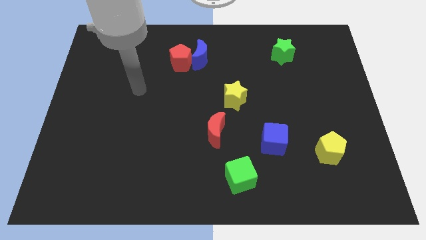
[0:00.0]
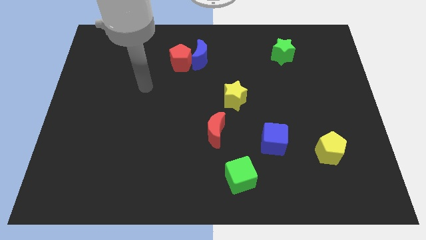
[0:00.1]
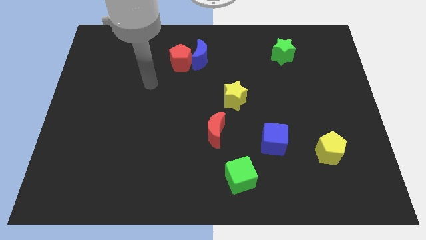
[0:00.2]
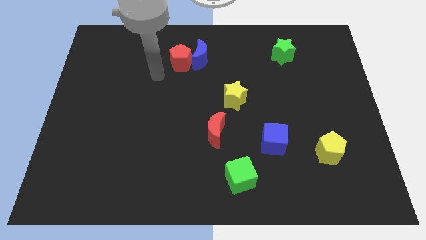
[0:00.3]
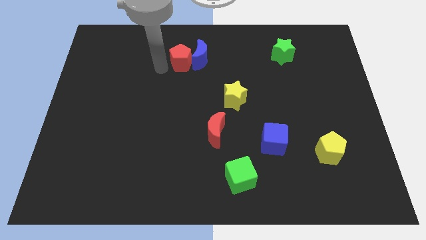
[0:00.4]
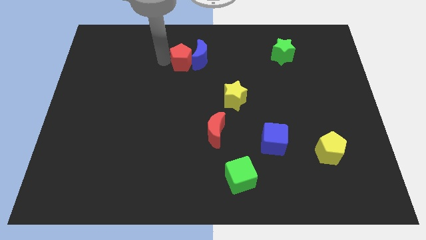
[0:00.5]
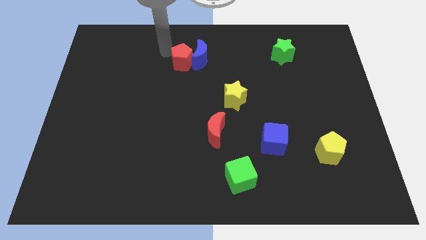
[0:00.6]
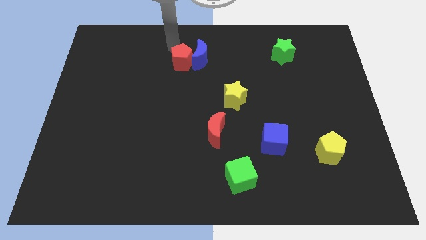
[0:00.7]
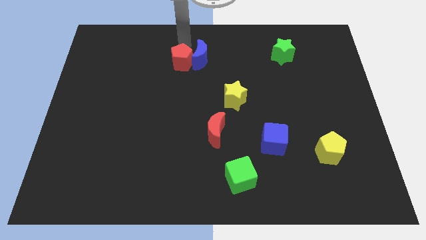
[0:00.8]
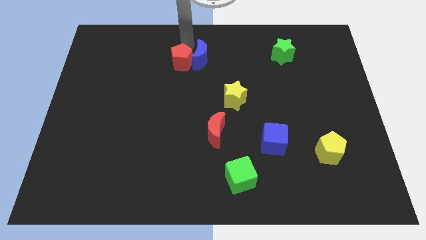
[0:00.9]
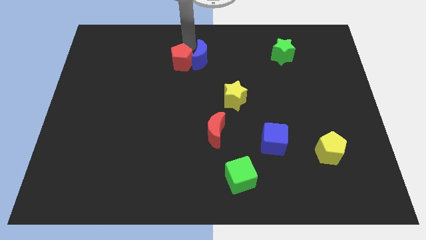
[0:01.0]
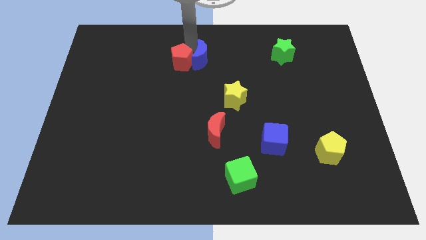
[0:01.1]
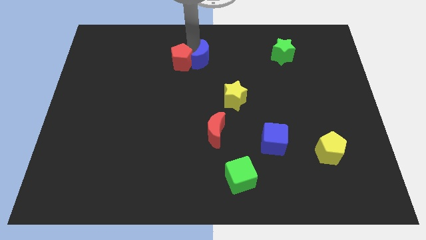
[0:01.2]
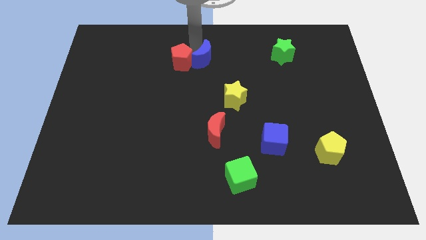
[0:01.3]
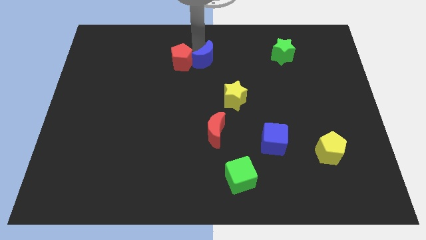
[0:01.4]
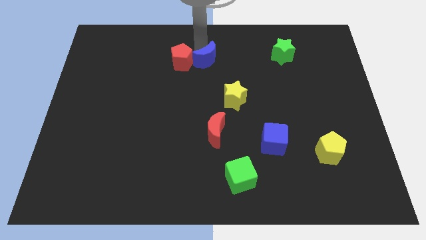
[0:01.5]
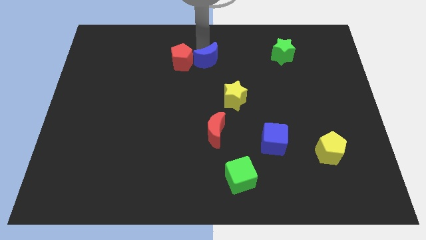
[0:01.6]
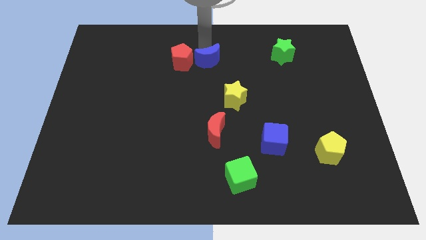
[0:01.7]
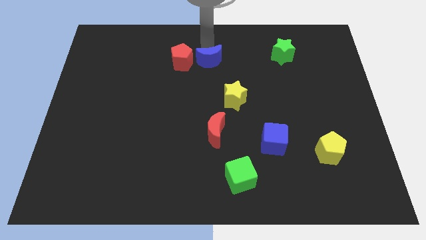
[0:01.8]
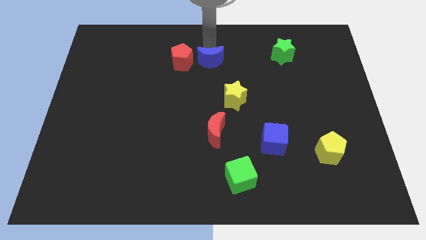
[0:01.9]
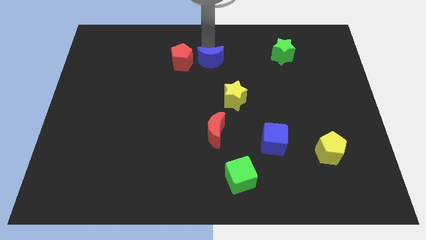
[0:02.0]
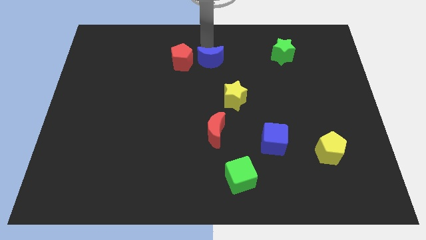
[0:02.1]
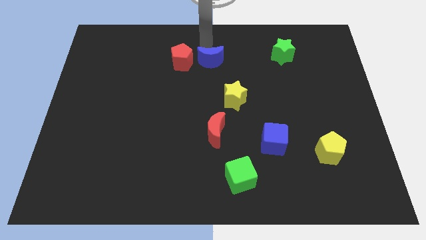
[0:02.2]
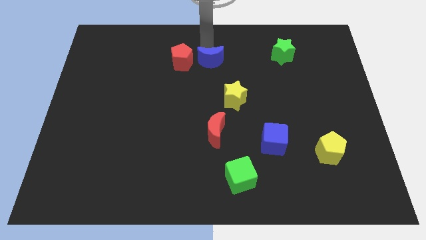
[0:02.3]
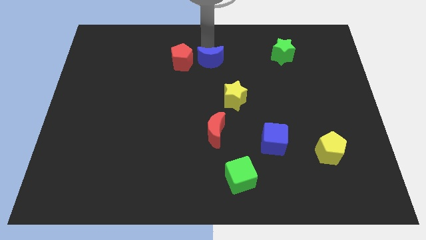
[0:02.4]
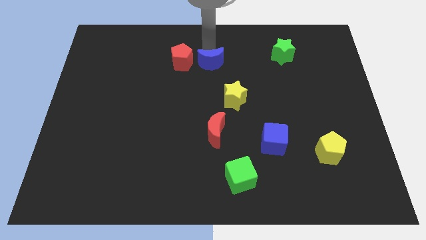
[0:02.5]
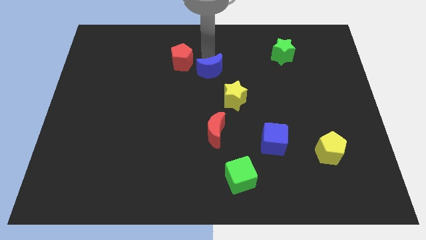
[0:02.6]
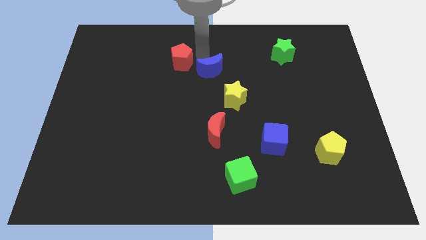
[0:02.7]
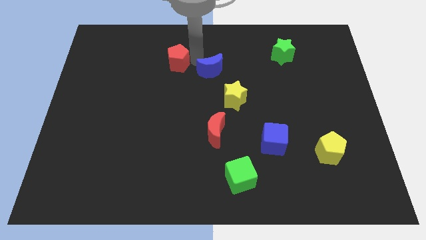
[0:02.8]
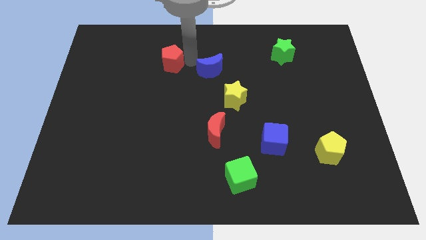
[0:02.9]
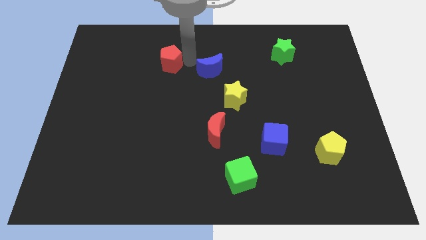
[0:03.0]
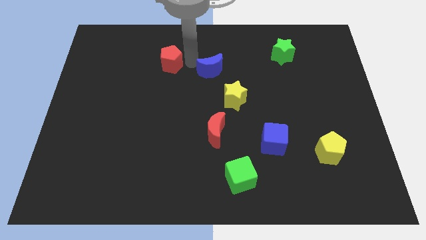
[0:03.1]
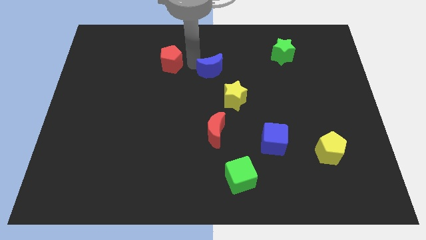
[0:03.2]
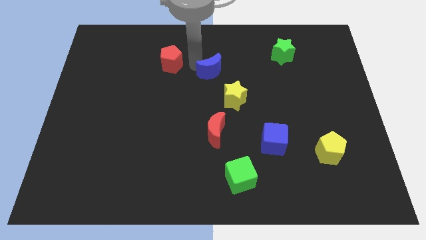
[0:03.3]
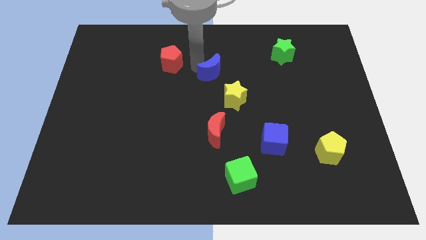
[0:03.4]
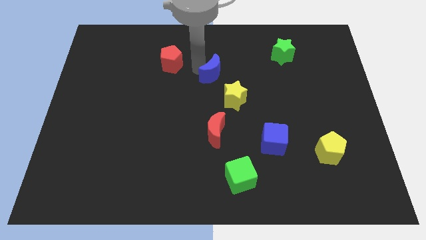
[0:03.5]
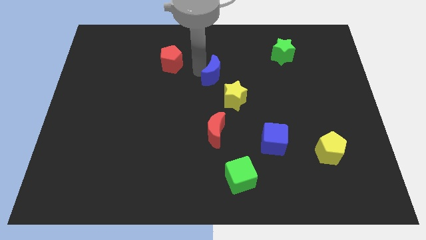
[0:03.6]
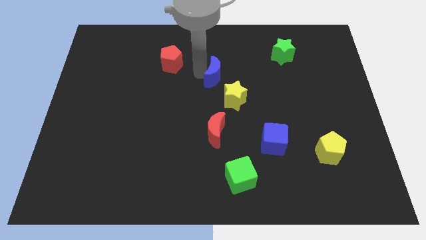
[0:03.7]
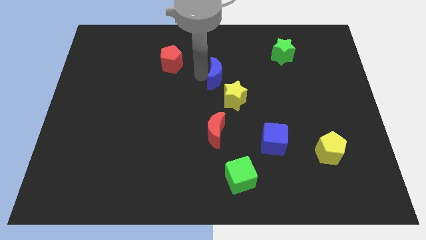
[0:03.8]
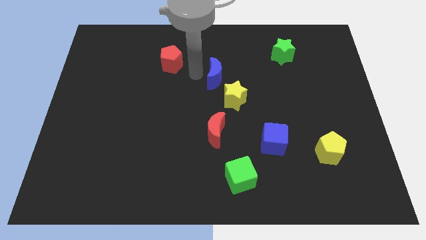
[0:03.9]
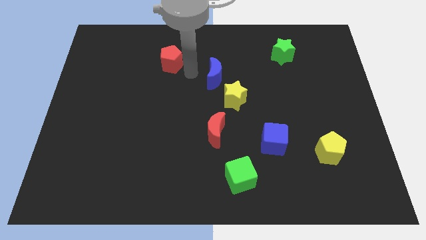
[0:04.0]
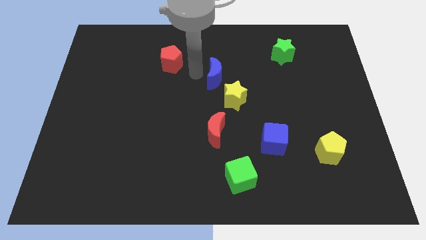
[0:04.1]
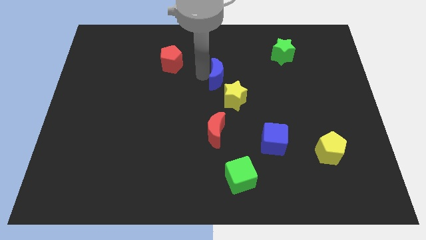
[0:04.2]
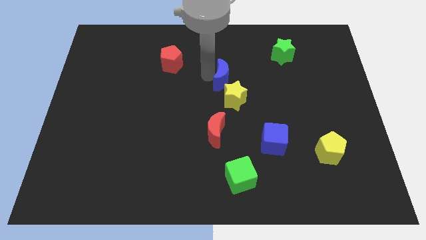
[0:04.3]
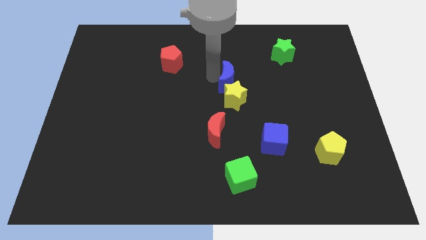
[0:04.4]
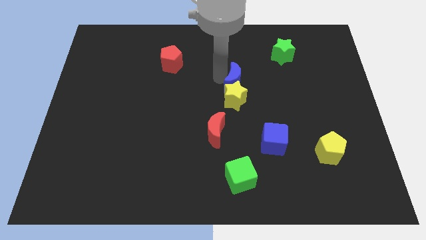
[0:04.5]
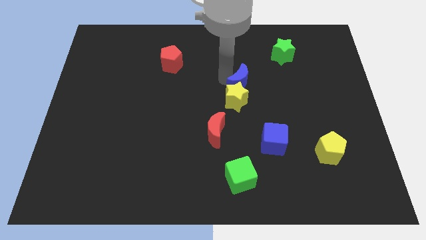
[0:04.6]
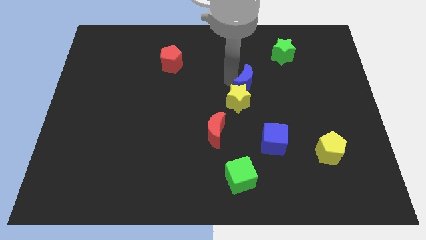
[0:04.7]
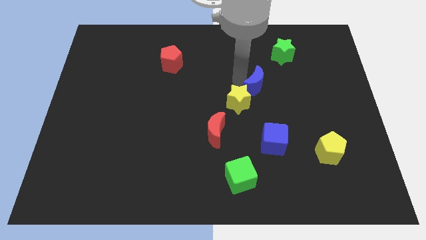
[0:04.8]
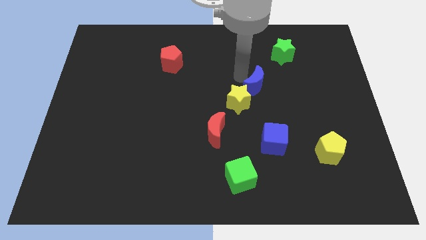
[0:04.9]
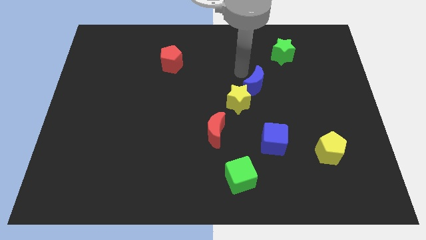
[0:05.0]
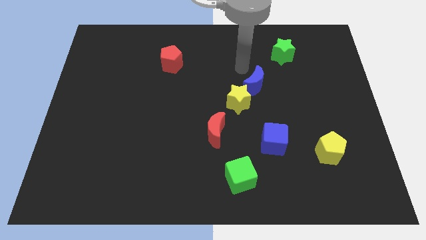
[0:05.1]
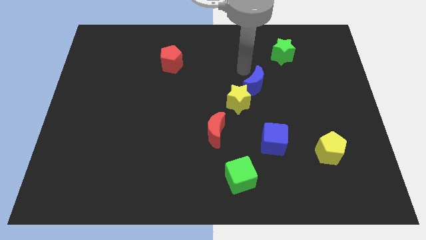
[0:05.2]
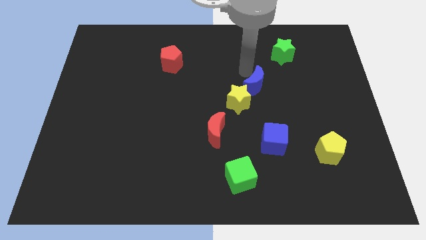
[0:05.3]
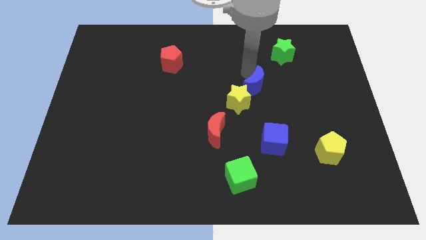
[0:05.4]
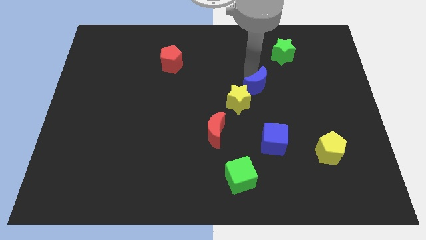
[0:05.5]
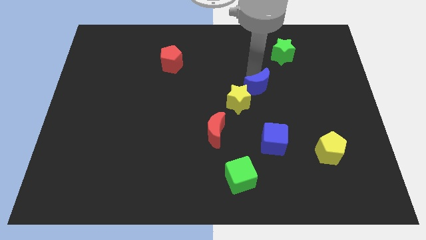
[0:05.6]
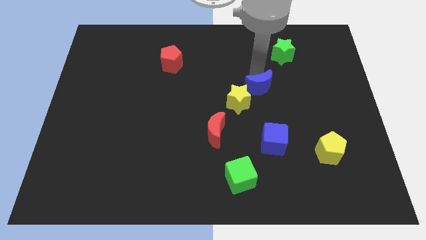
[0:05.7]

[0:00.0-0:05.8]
slide the blue moon to the top of the blue cube

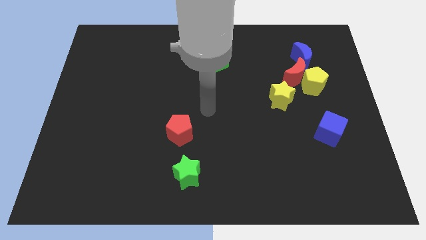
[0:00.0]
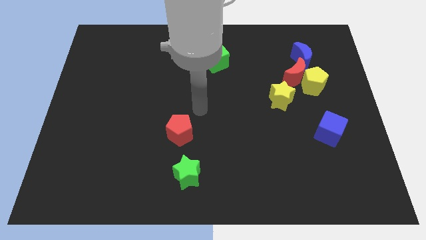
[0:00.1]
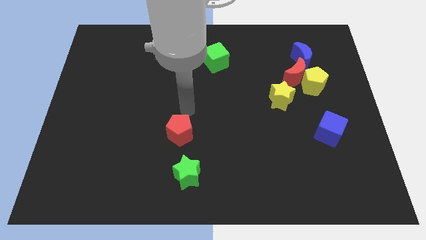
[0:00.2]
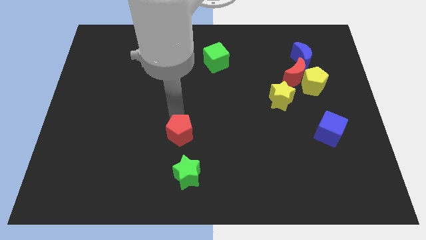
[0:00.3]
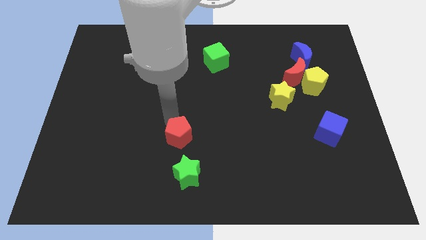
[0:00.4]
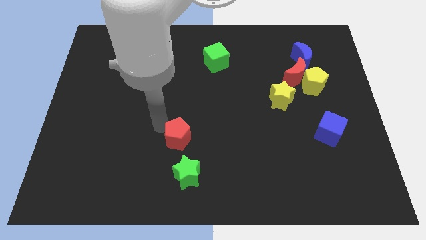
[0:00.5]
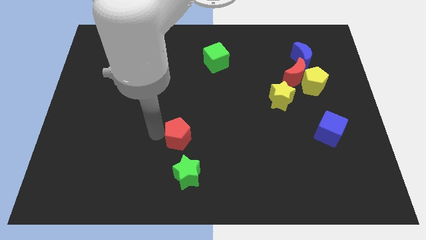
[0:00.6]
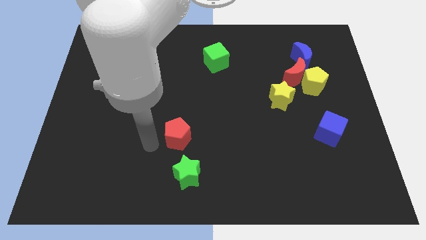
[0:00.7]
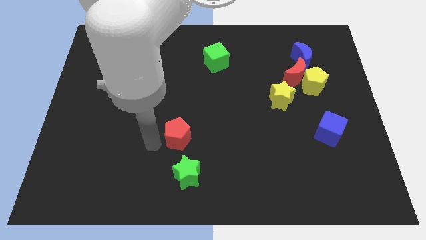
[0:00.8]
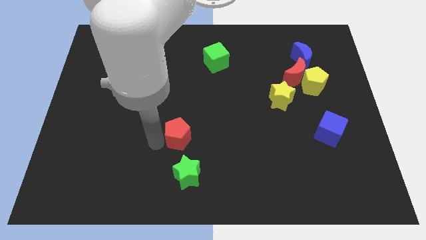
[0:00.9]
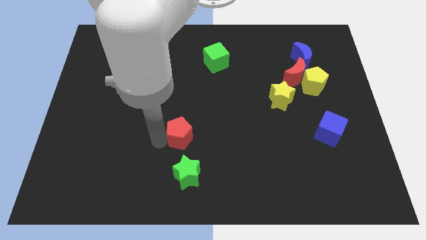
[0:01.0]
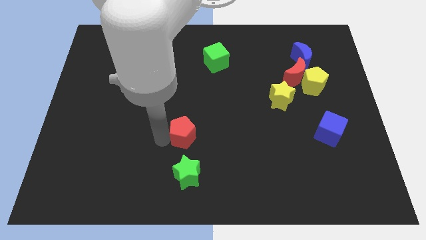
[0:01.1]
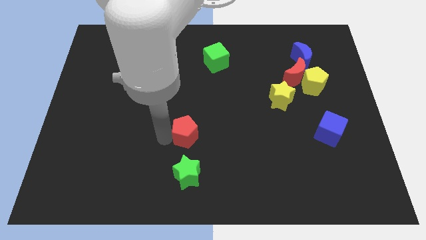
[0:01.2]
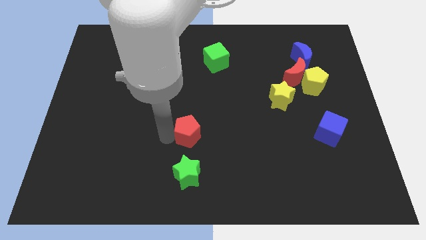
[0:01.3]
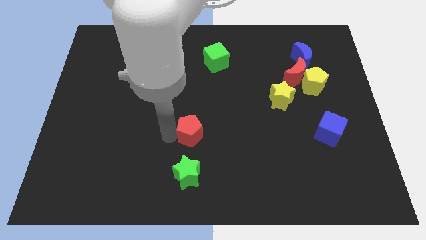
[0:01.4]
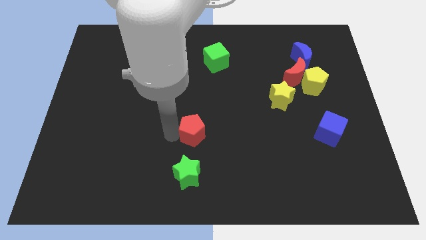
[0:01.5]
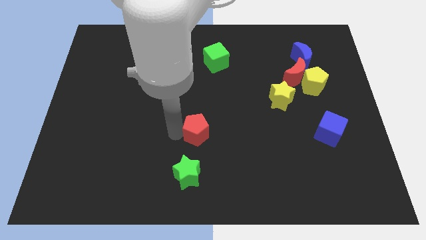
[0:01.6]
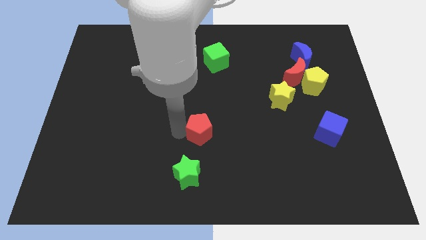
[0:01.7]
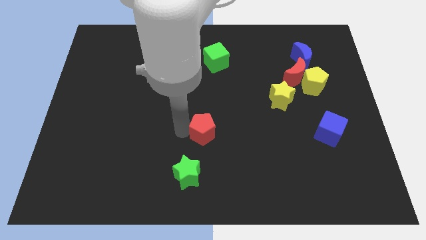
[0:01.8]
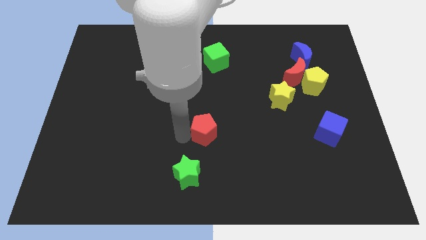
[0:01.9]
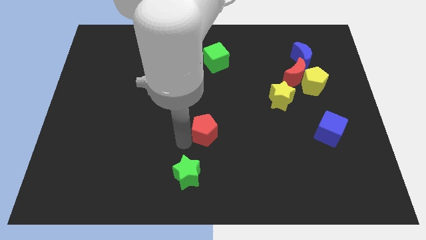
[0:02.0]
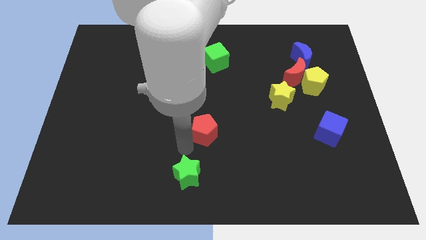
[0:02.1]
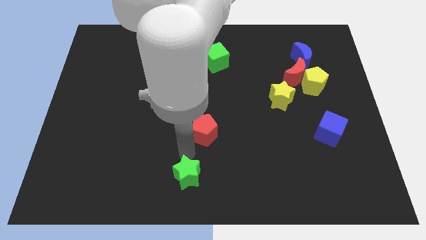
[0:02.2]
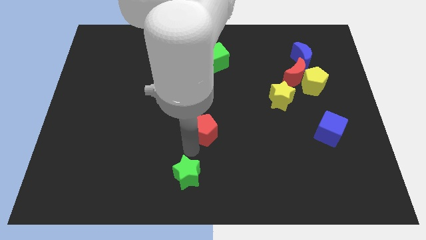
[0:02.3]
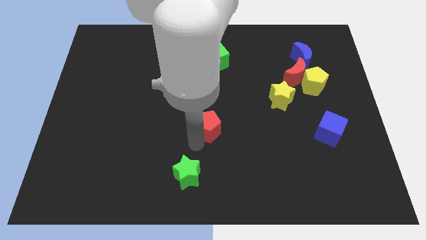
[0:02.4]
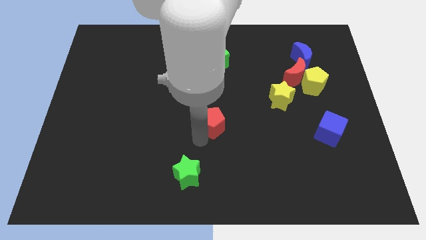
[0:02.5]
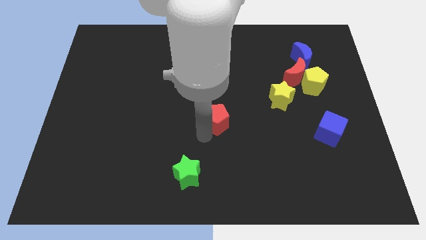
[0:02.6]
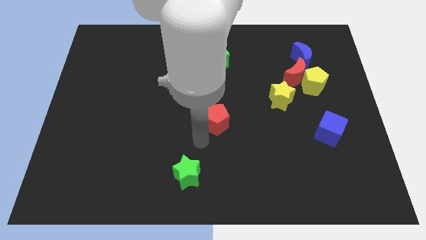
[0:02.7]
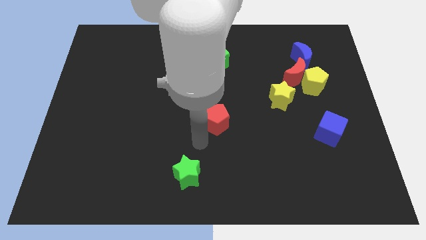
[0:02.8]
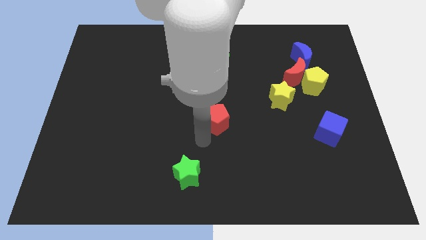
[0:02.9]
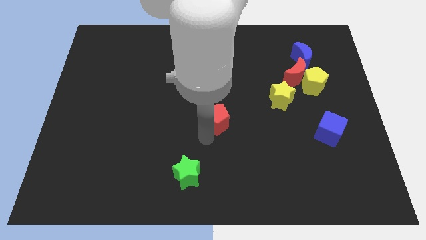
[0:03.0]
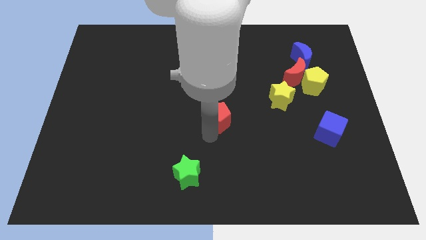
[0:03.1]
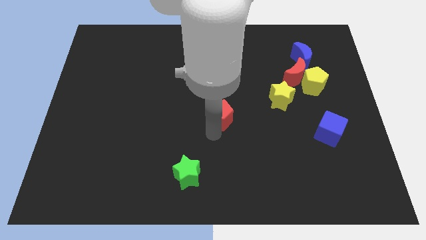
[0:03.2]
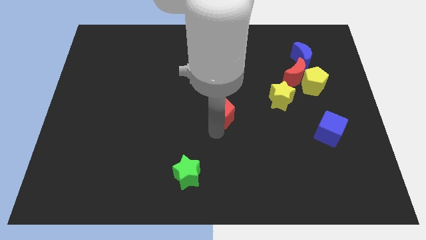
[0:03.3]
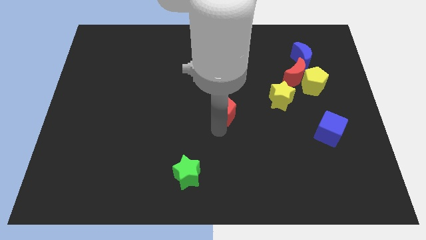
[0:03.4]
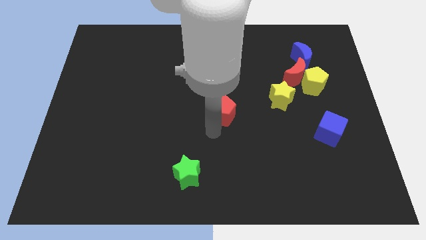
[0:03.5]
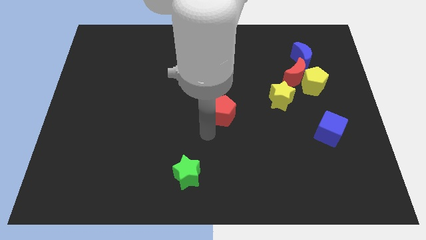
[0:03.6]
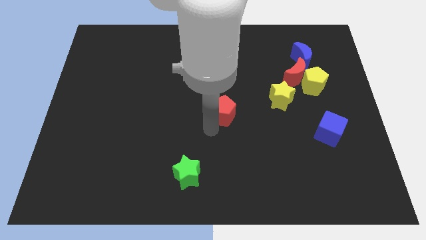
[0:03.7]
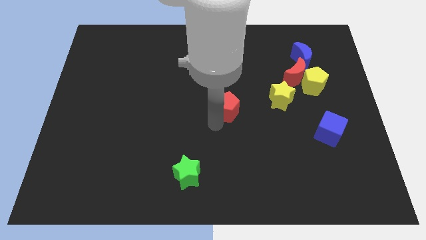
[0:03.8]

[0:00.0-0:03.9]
push the red pentagon to the left side of the yellow star
